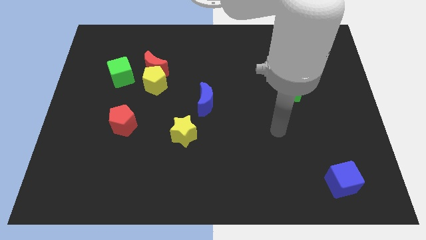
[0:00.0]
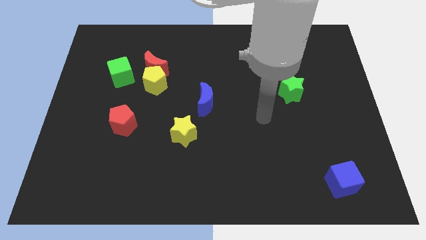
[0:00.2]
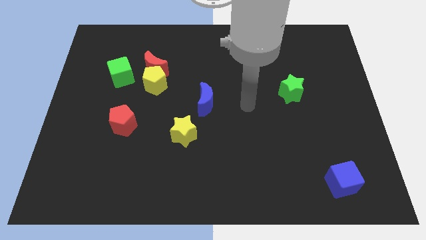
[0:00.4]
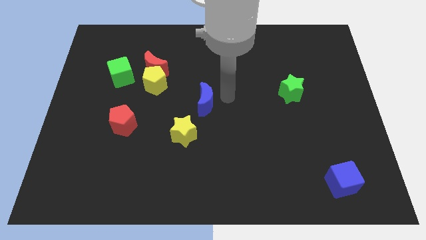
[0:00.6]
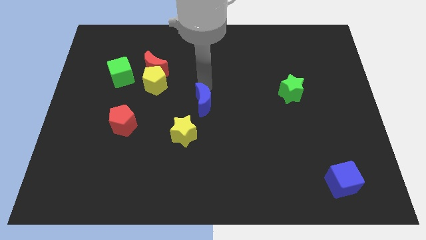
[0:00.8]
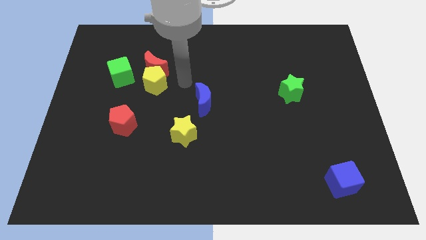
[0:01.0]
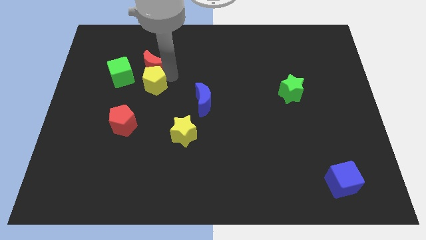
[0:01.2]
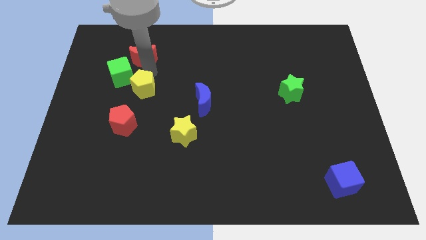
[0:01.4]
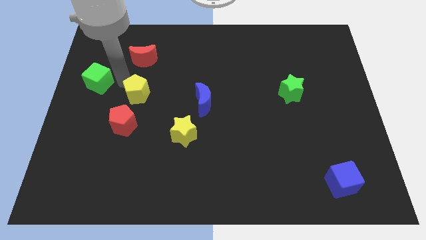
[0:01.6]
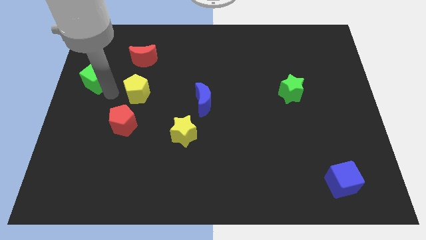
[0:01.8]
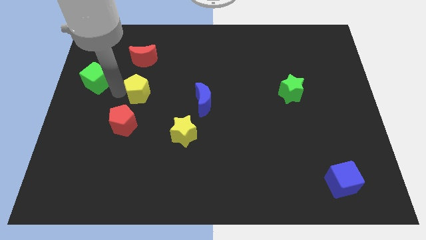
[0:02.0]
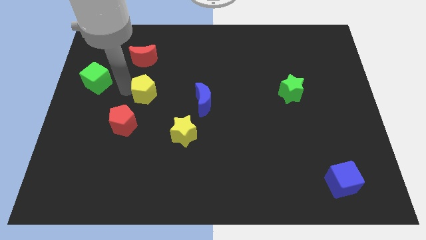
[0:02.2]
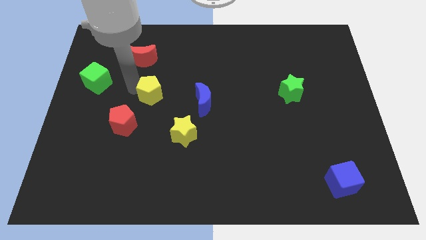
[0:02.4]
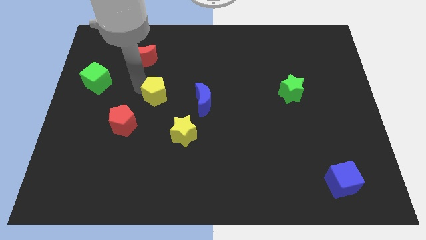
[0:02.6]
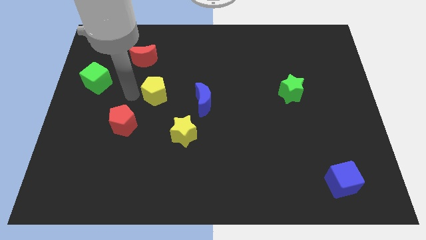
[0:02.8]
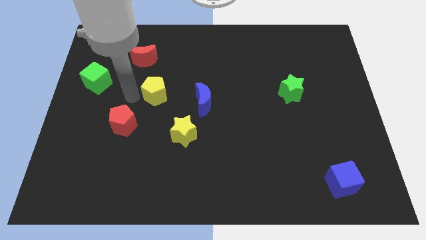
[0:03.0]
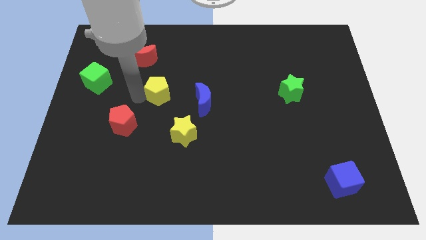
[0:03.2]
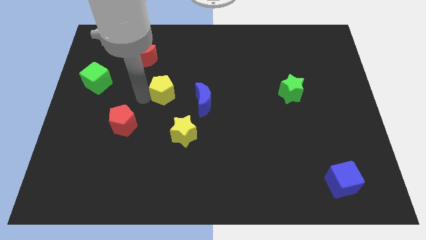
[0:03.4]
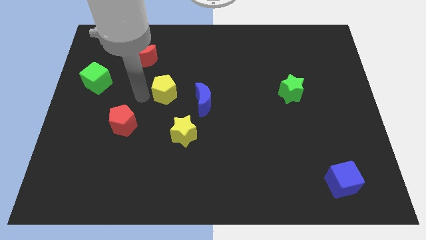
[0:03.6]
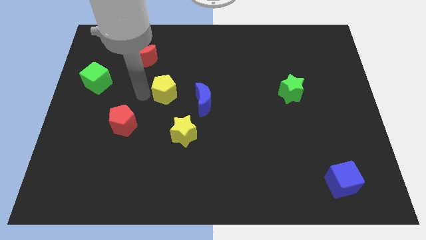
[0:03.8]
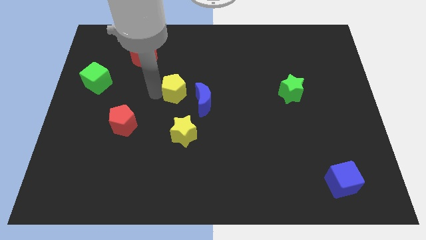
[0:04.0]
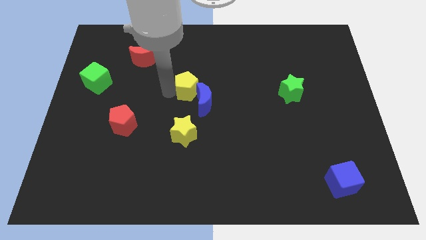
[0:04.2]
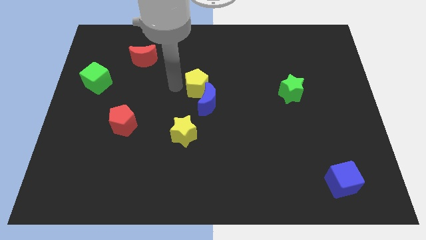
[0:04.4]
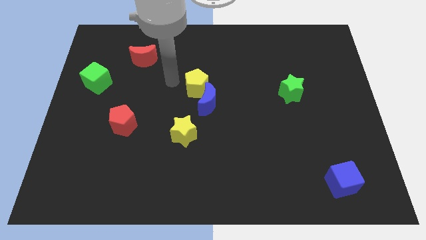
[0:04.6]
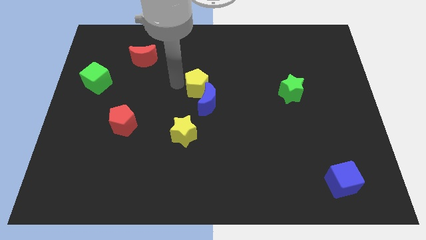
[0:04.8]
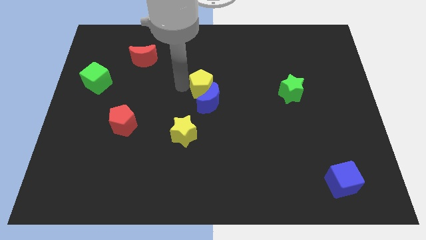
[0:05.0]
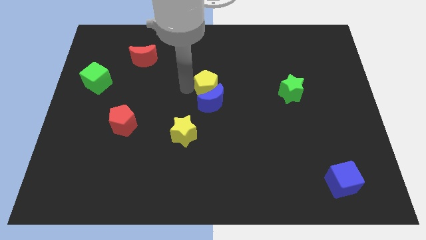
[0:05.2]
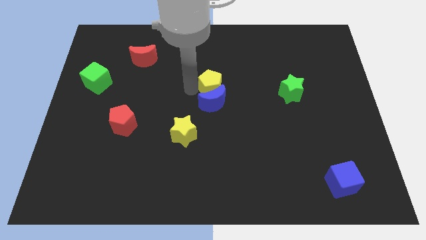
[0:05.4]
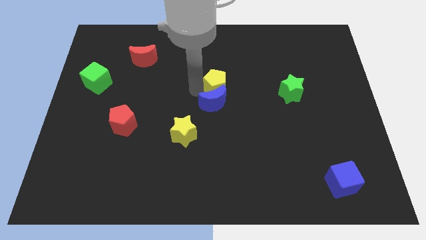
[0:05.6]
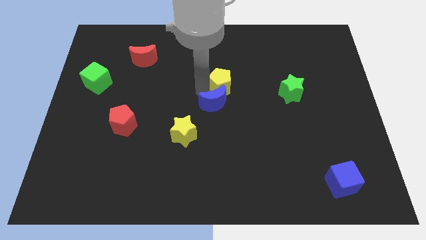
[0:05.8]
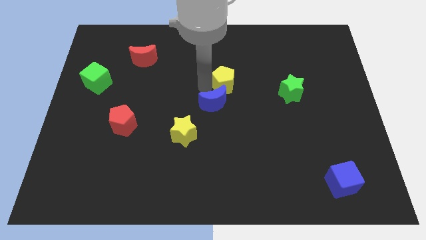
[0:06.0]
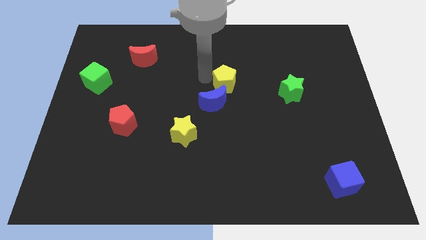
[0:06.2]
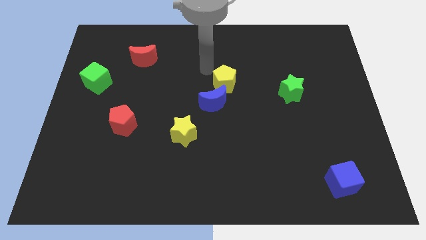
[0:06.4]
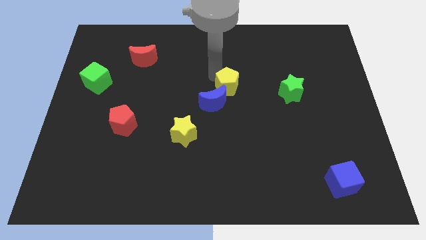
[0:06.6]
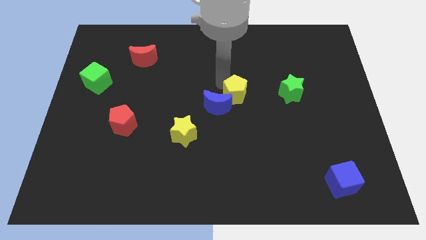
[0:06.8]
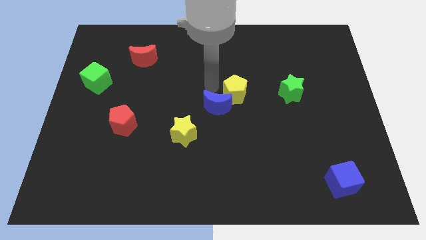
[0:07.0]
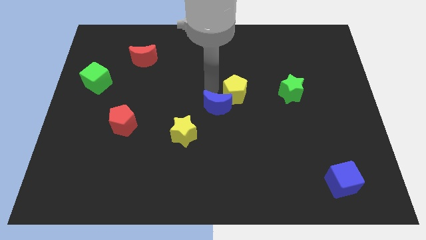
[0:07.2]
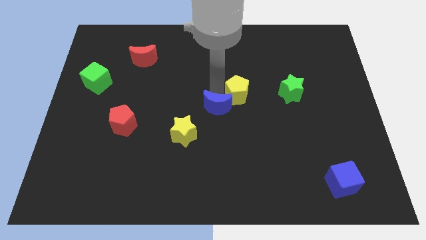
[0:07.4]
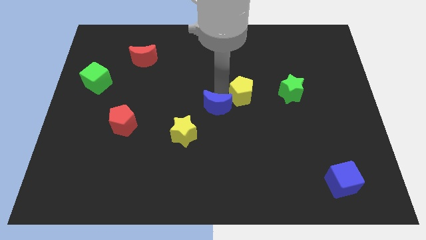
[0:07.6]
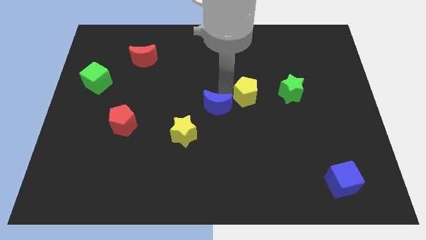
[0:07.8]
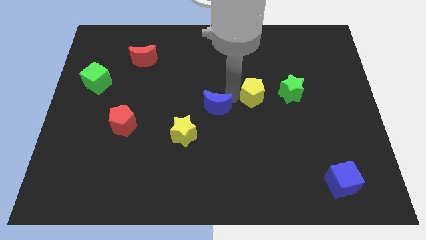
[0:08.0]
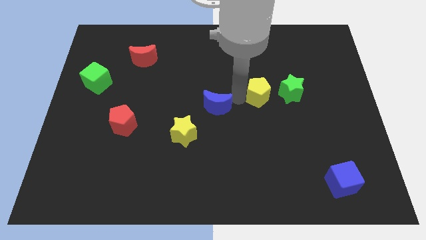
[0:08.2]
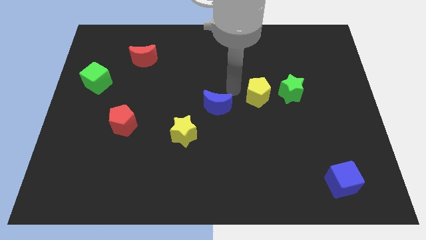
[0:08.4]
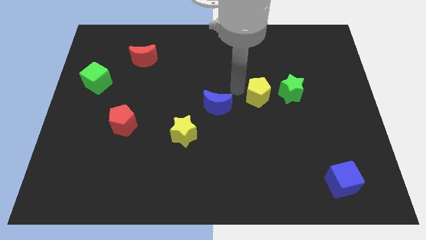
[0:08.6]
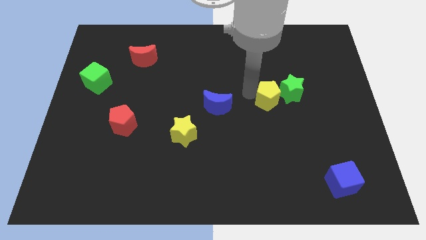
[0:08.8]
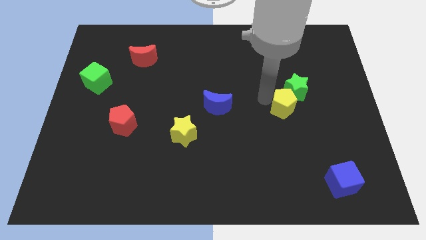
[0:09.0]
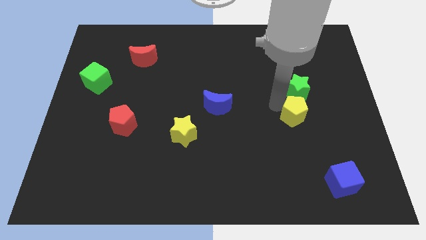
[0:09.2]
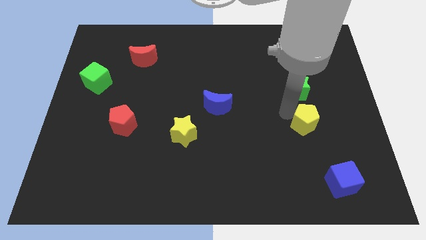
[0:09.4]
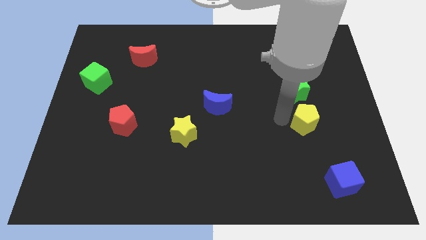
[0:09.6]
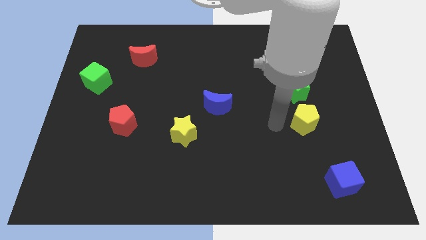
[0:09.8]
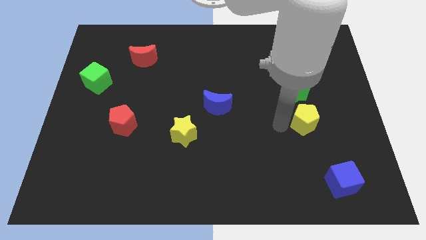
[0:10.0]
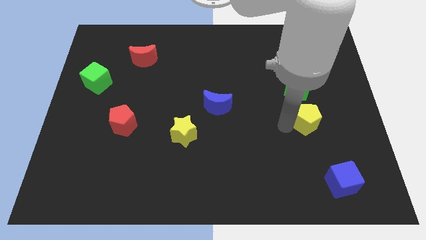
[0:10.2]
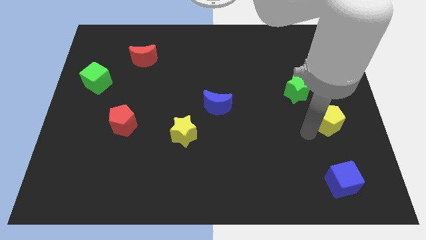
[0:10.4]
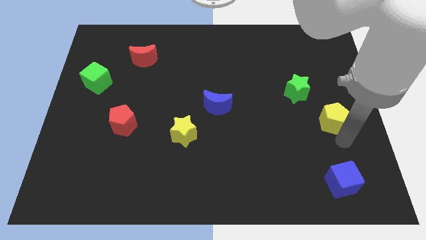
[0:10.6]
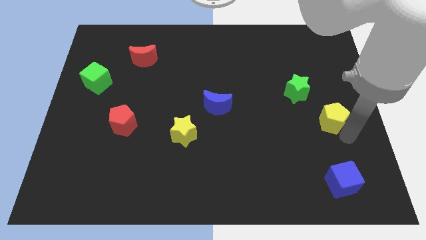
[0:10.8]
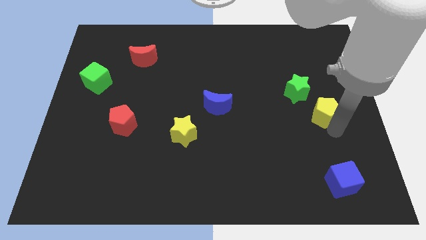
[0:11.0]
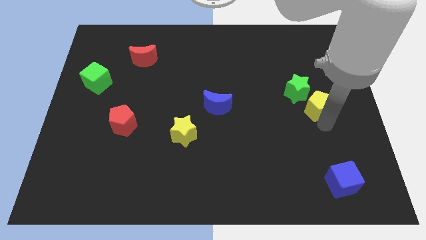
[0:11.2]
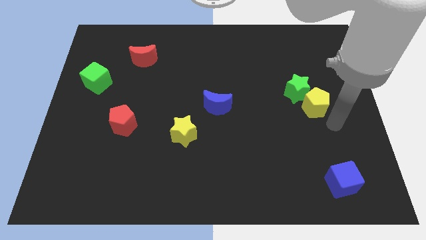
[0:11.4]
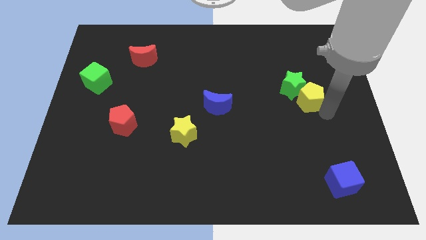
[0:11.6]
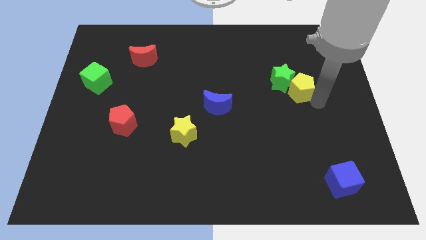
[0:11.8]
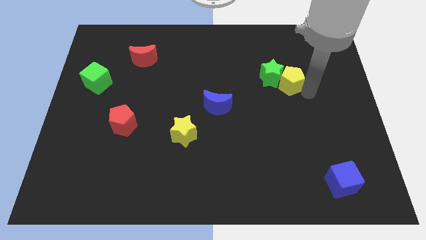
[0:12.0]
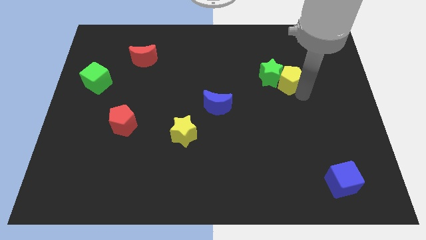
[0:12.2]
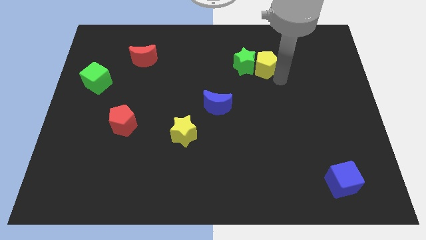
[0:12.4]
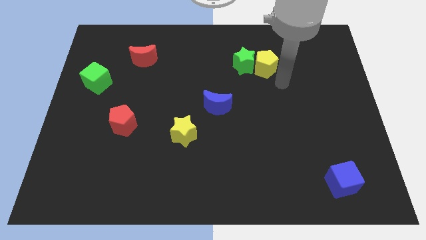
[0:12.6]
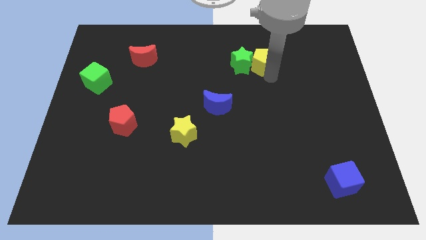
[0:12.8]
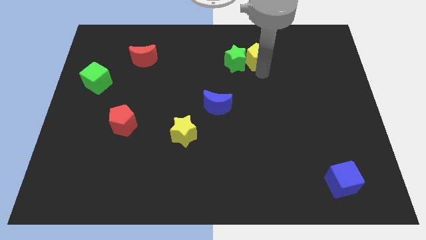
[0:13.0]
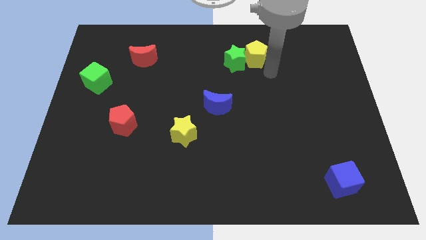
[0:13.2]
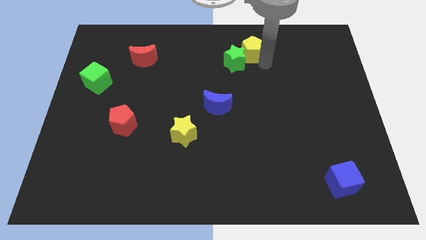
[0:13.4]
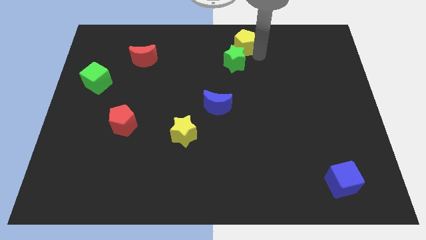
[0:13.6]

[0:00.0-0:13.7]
slide the yellow pentagon to the top side
